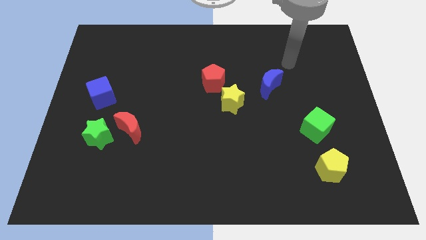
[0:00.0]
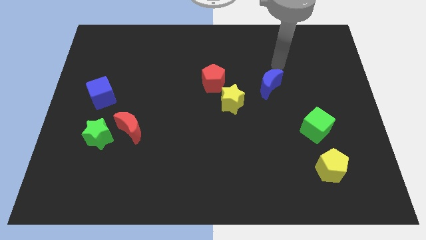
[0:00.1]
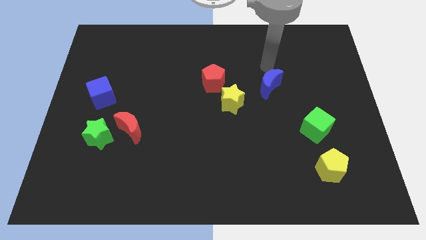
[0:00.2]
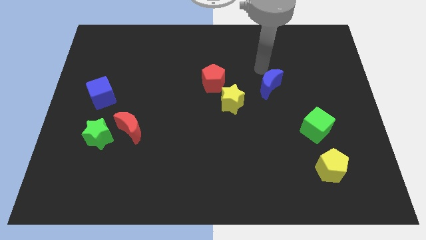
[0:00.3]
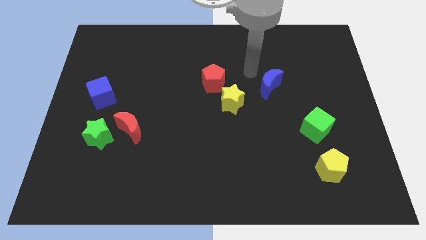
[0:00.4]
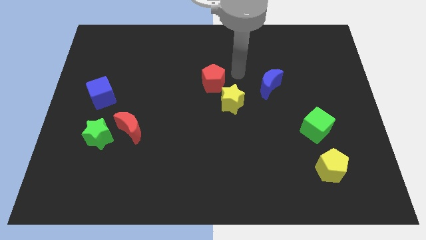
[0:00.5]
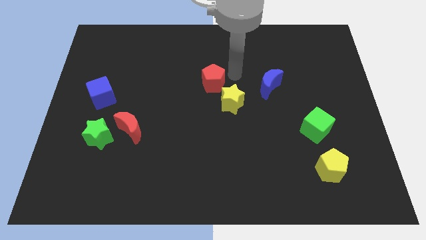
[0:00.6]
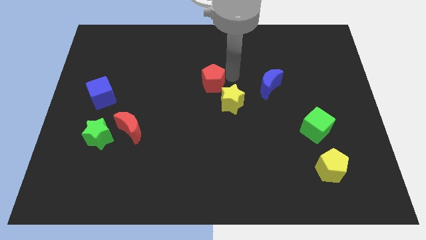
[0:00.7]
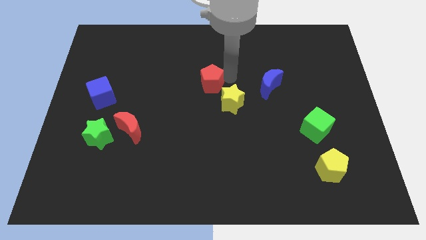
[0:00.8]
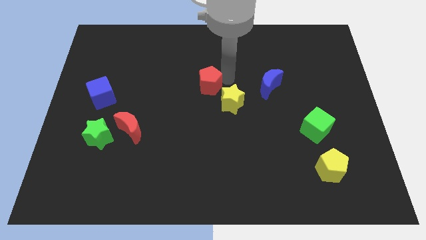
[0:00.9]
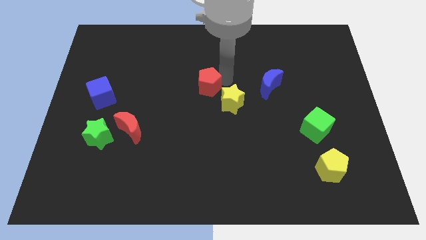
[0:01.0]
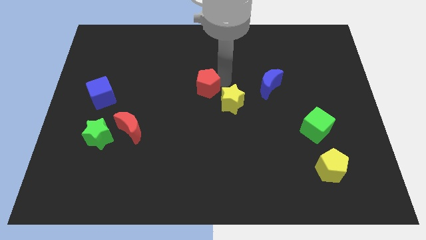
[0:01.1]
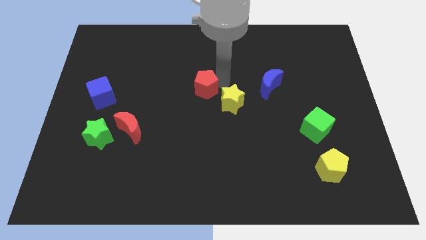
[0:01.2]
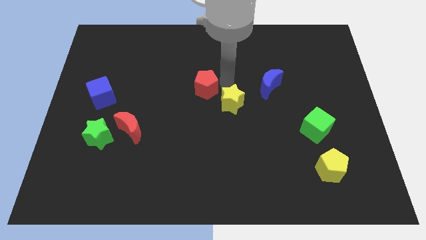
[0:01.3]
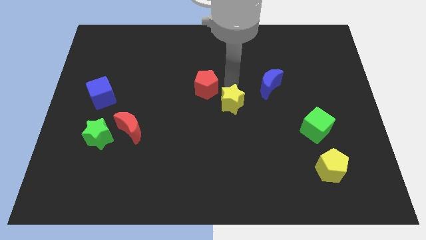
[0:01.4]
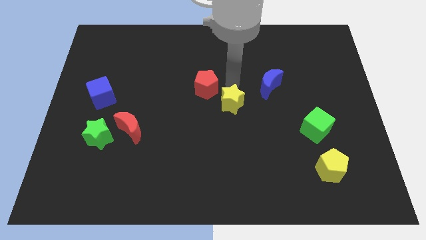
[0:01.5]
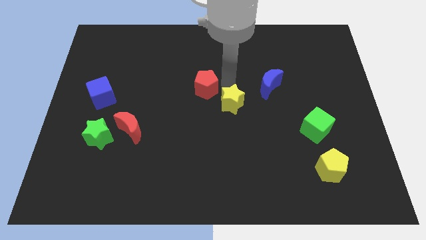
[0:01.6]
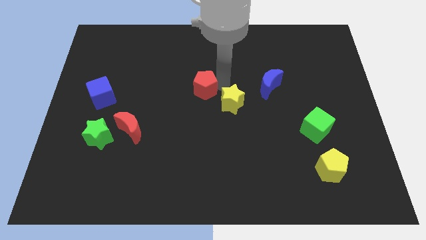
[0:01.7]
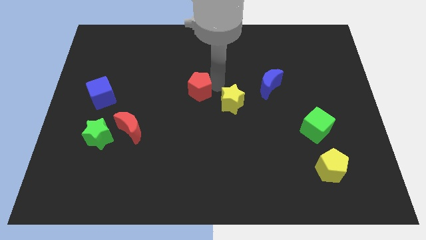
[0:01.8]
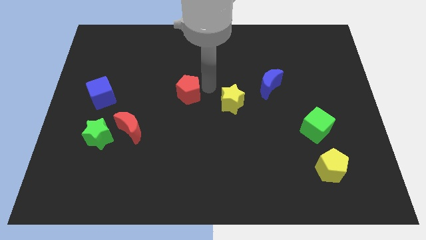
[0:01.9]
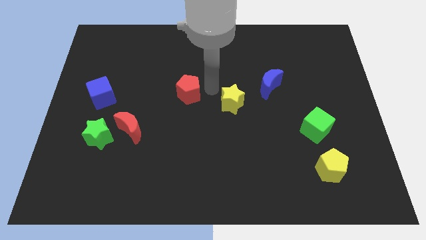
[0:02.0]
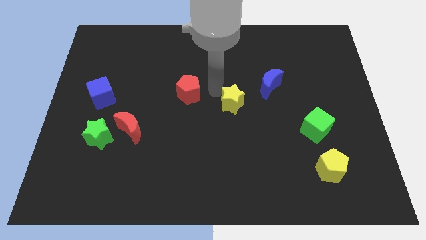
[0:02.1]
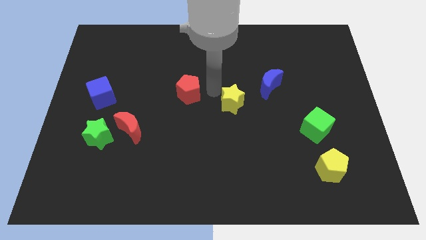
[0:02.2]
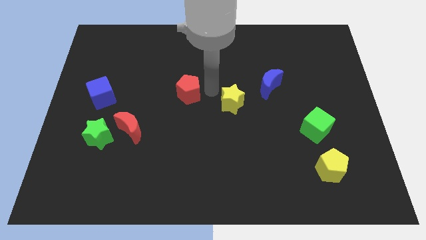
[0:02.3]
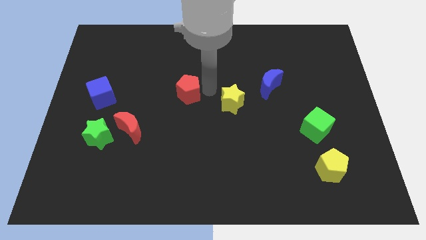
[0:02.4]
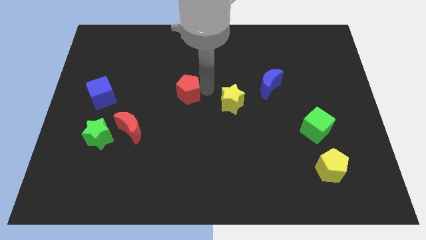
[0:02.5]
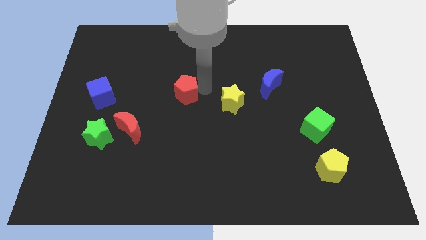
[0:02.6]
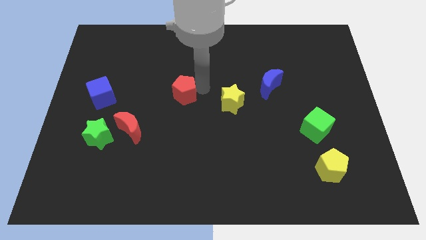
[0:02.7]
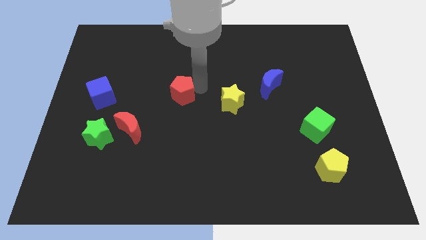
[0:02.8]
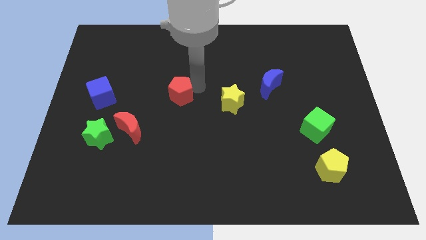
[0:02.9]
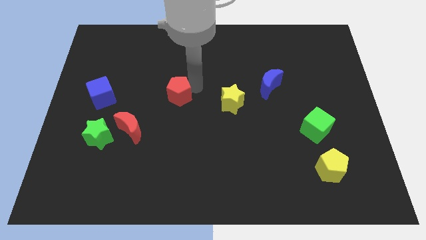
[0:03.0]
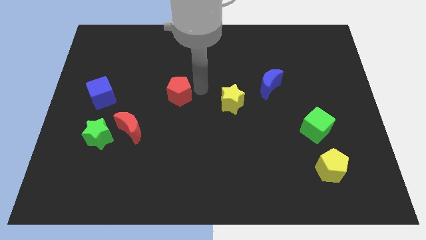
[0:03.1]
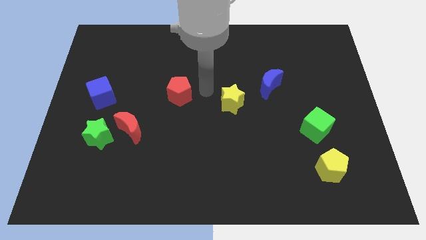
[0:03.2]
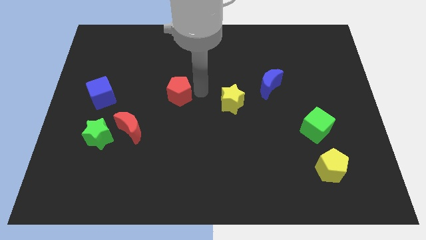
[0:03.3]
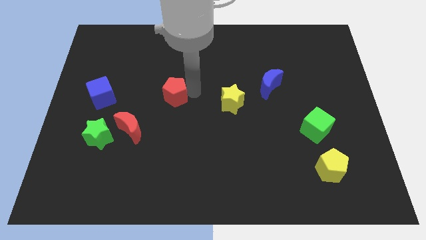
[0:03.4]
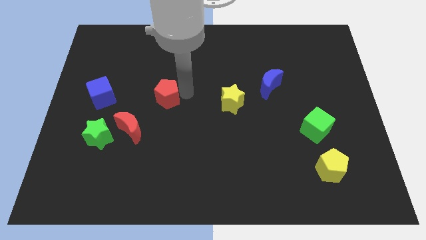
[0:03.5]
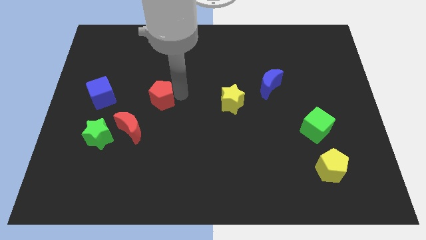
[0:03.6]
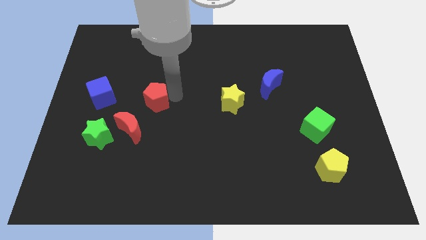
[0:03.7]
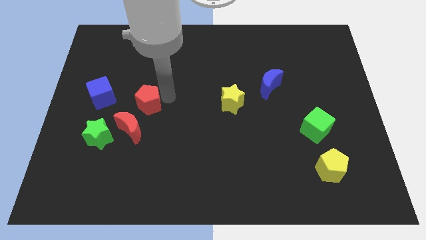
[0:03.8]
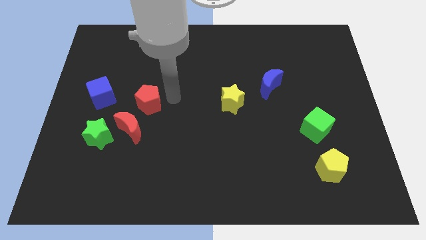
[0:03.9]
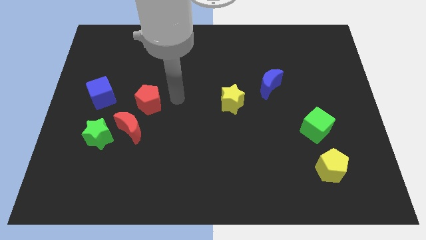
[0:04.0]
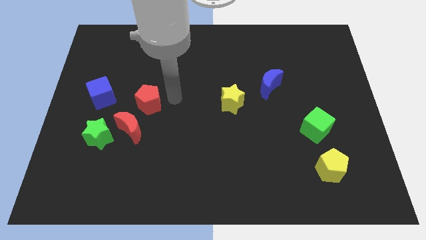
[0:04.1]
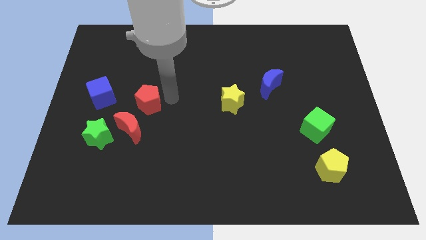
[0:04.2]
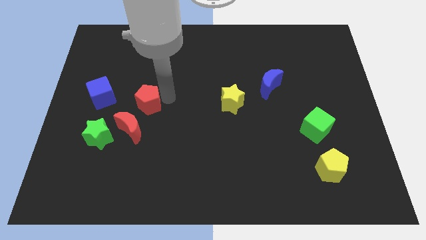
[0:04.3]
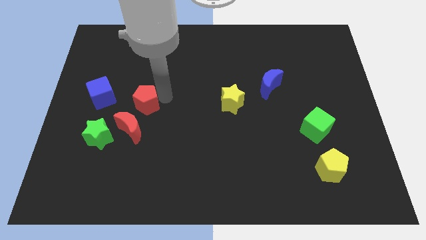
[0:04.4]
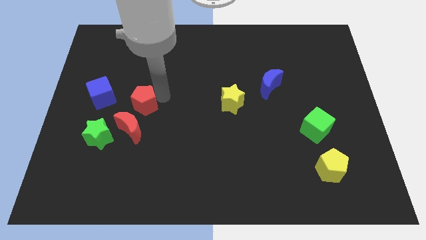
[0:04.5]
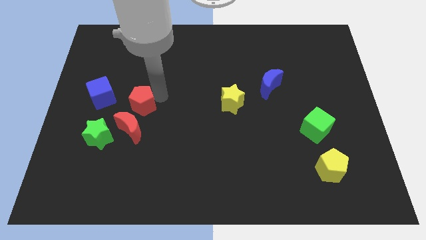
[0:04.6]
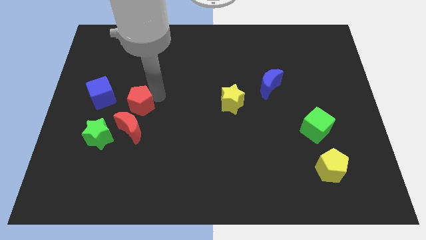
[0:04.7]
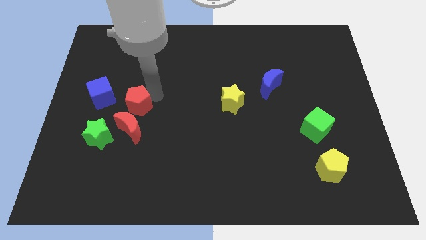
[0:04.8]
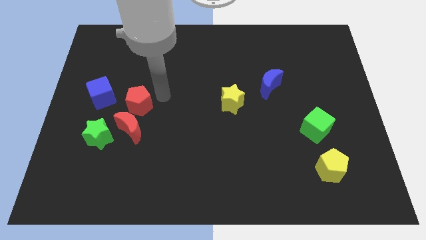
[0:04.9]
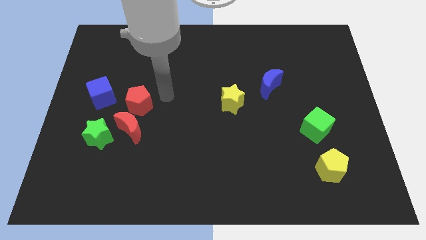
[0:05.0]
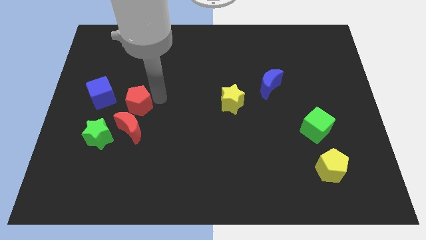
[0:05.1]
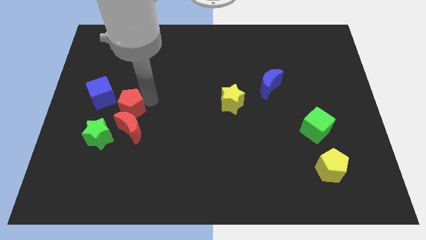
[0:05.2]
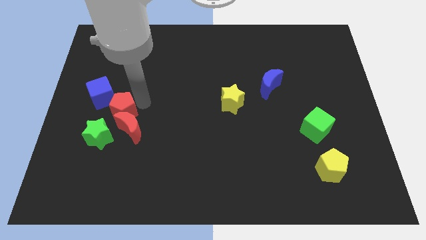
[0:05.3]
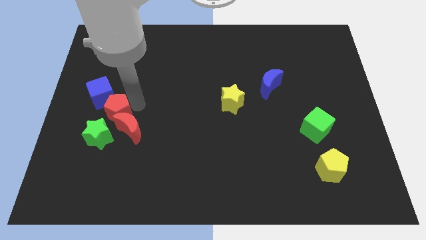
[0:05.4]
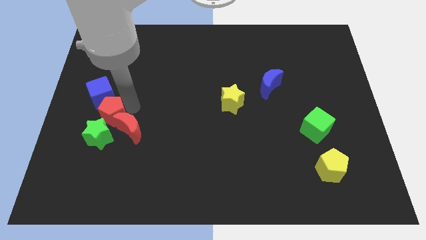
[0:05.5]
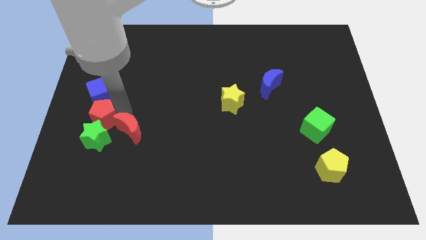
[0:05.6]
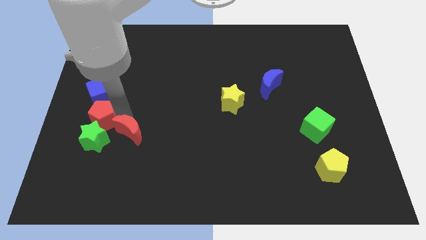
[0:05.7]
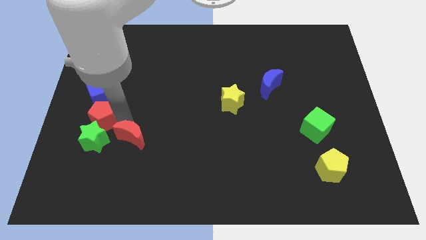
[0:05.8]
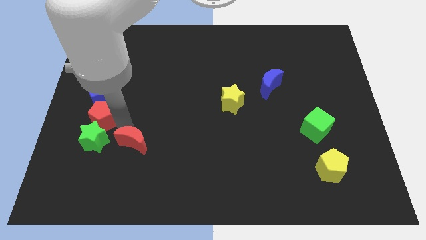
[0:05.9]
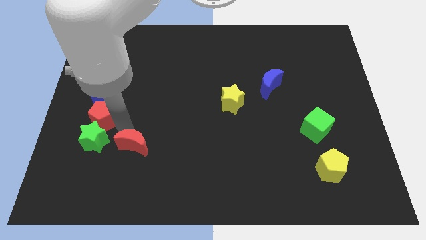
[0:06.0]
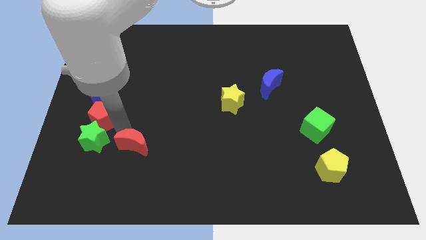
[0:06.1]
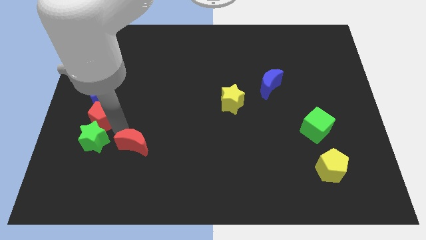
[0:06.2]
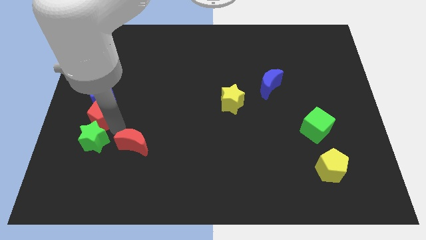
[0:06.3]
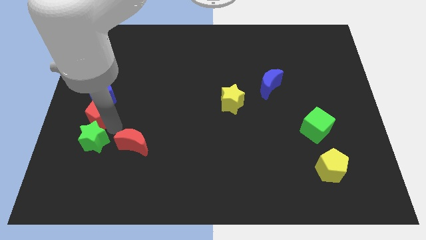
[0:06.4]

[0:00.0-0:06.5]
slide the red pentagon to the left side of the board
